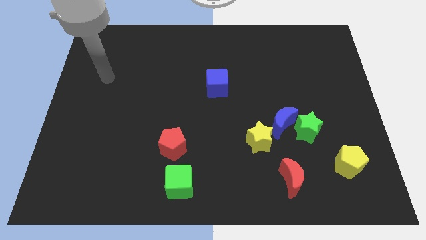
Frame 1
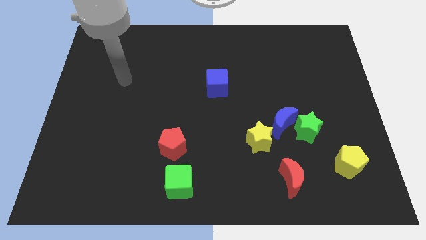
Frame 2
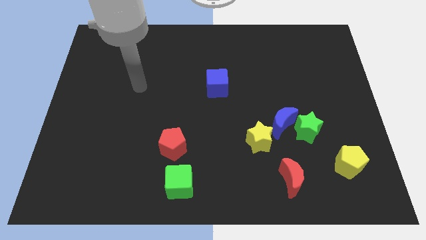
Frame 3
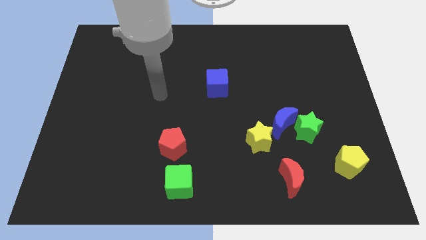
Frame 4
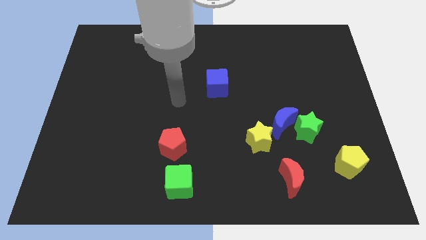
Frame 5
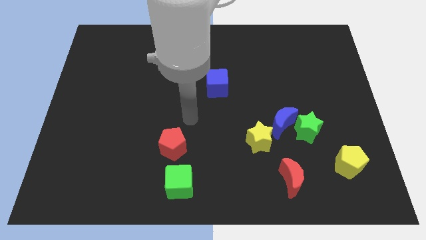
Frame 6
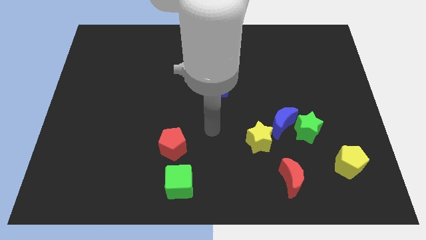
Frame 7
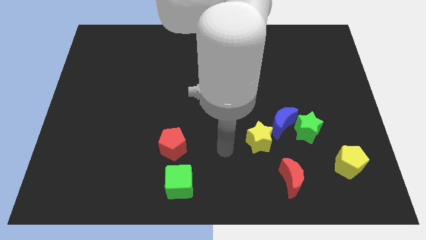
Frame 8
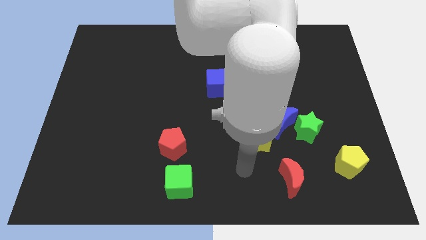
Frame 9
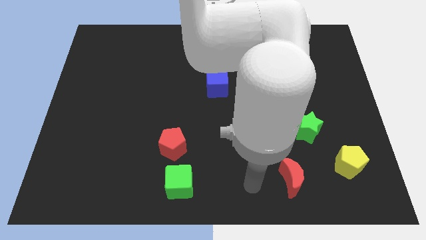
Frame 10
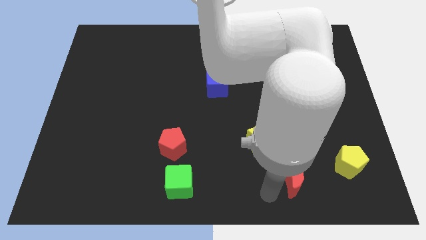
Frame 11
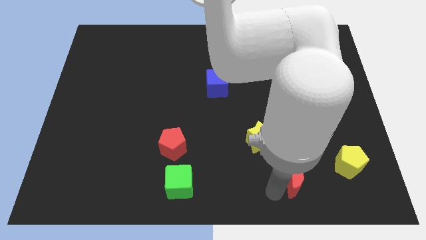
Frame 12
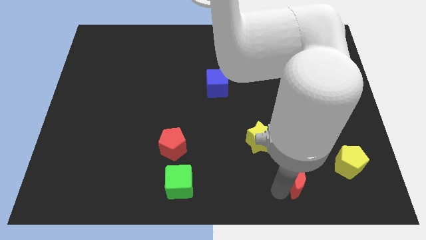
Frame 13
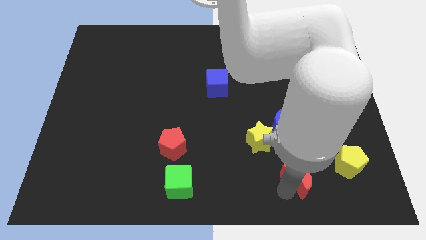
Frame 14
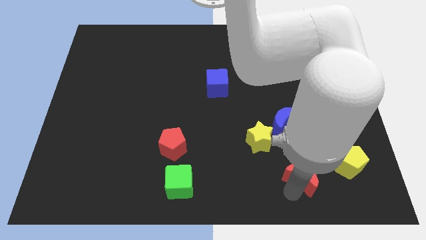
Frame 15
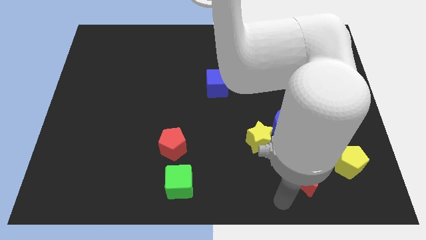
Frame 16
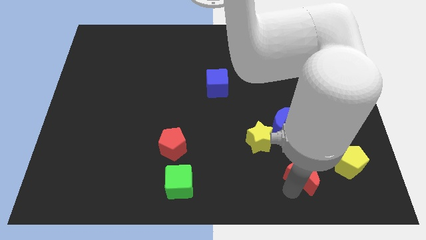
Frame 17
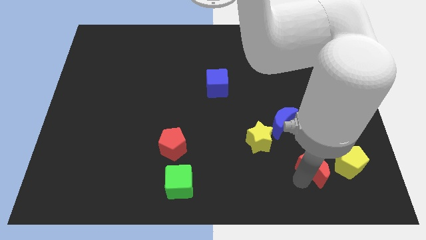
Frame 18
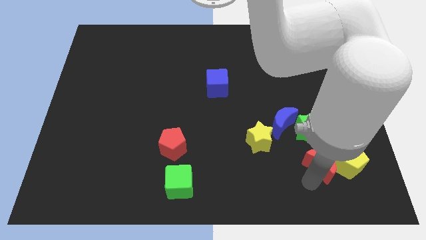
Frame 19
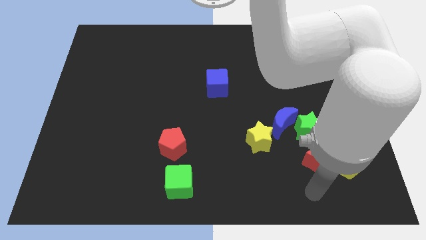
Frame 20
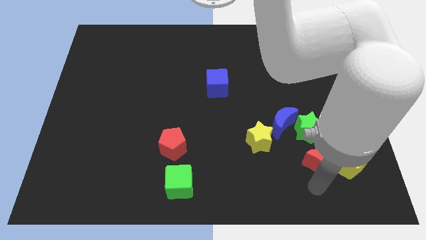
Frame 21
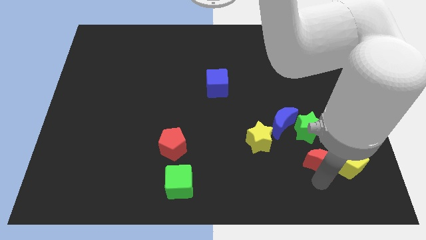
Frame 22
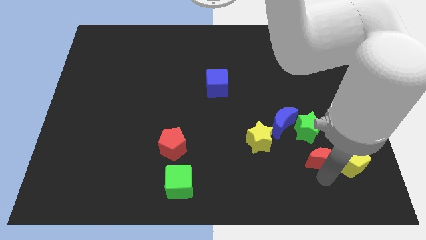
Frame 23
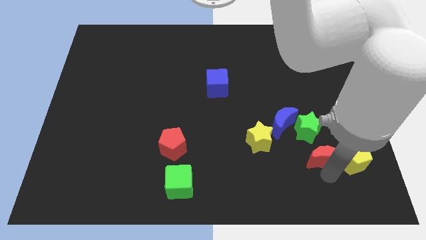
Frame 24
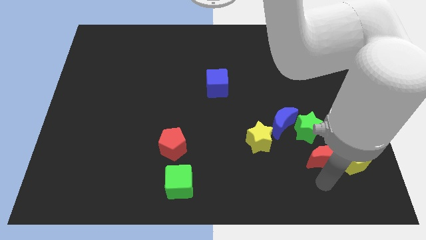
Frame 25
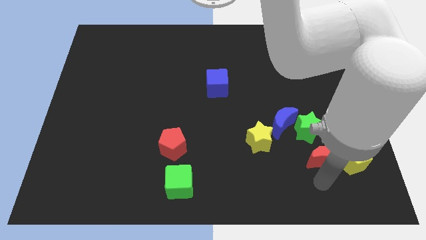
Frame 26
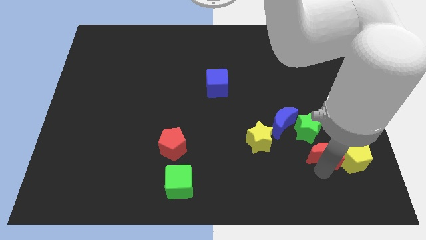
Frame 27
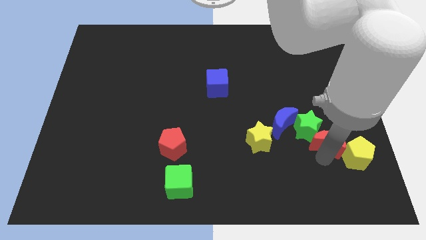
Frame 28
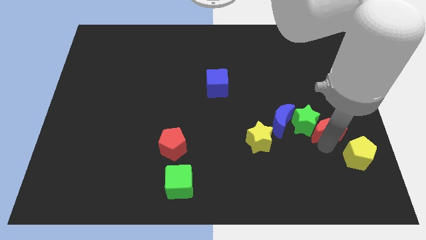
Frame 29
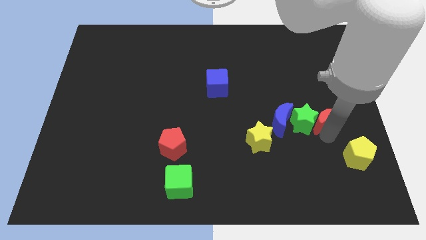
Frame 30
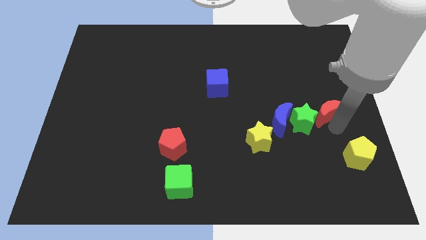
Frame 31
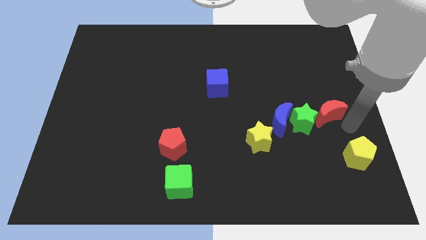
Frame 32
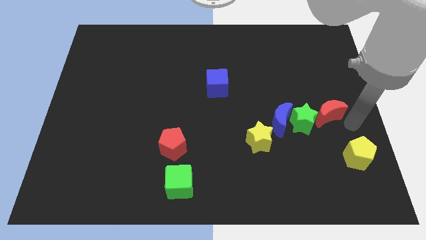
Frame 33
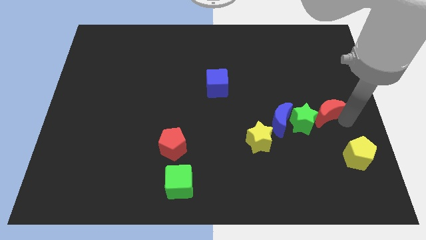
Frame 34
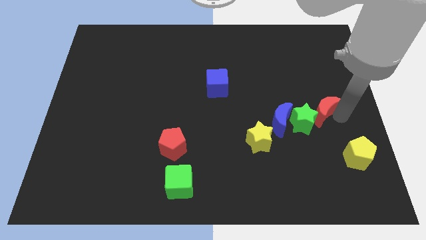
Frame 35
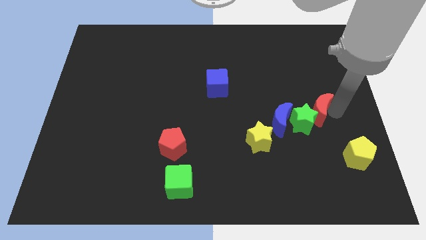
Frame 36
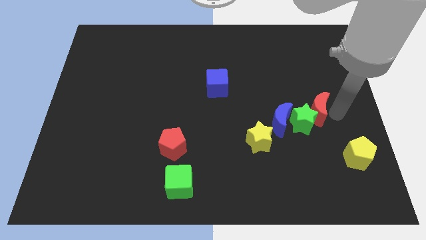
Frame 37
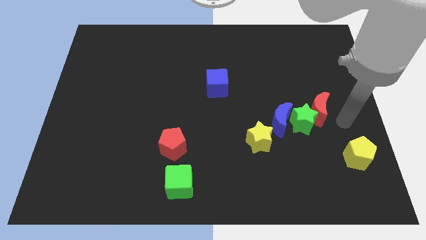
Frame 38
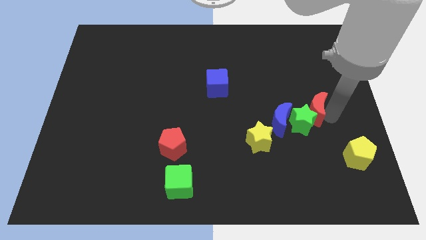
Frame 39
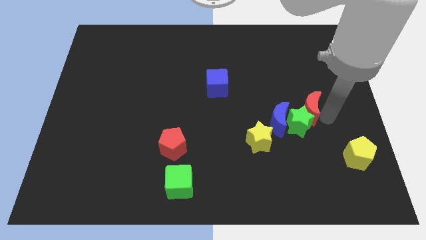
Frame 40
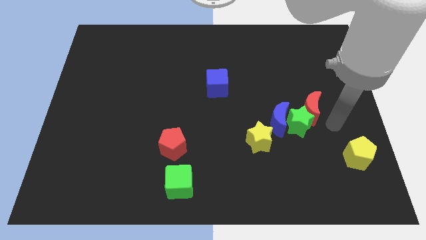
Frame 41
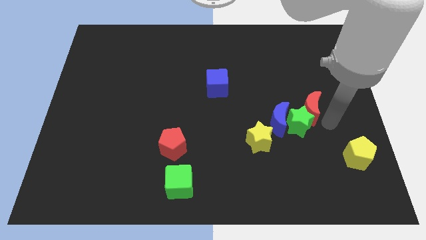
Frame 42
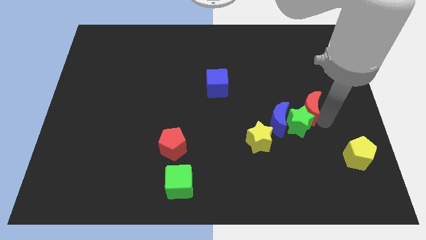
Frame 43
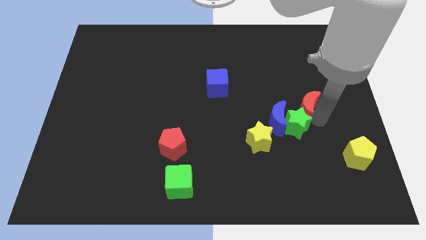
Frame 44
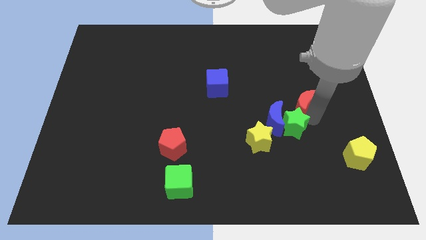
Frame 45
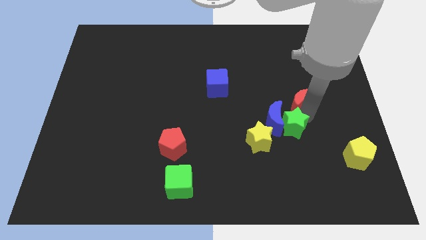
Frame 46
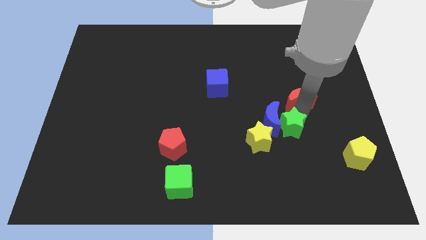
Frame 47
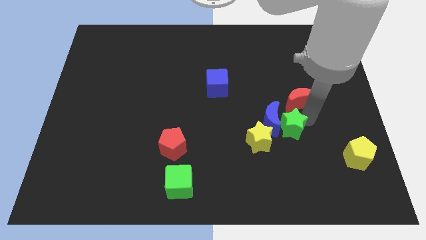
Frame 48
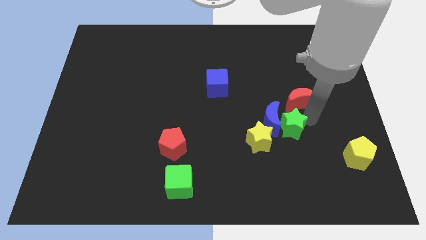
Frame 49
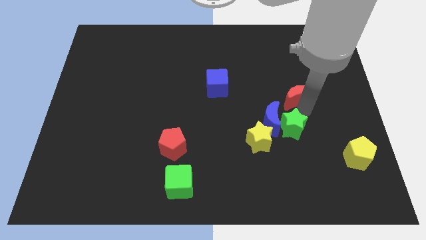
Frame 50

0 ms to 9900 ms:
slide the red moon up

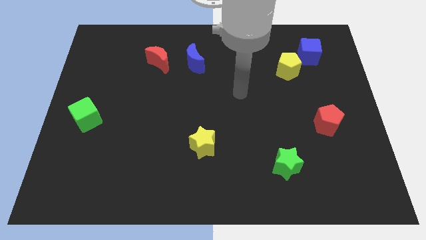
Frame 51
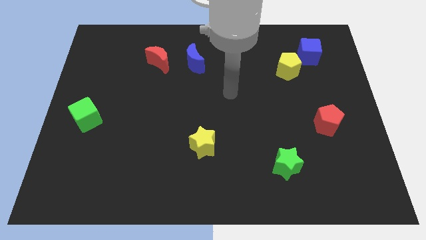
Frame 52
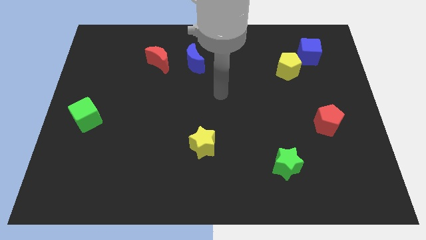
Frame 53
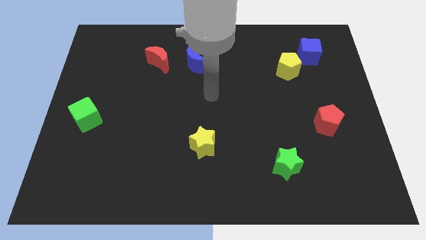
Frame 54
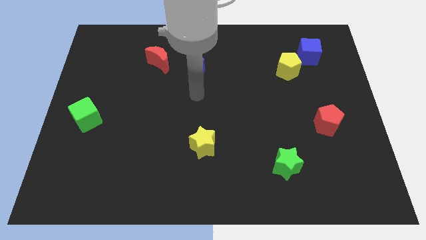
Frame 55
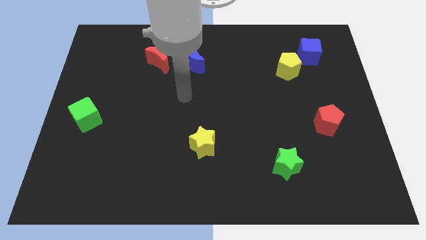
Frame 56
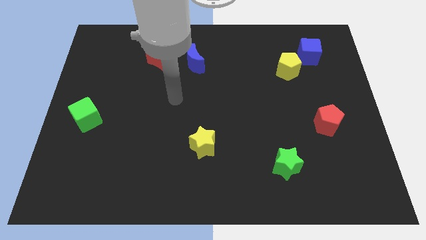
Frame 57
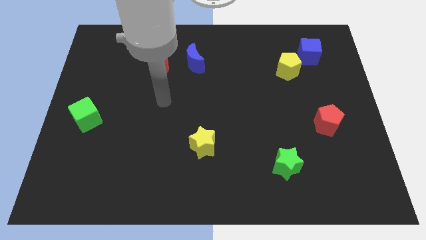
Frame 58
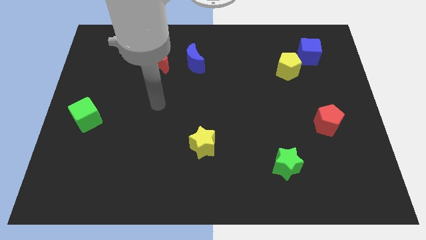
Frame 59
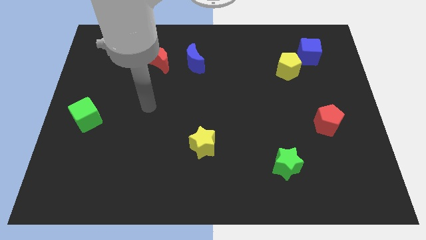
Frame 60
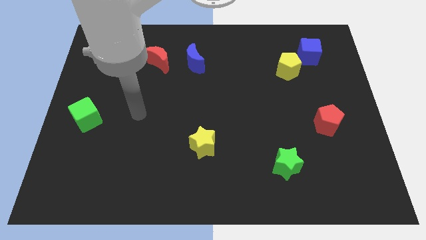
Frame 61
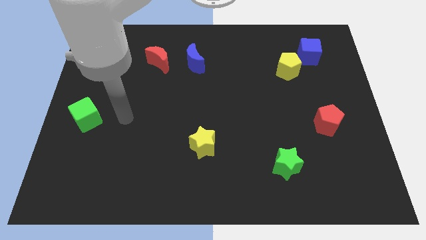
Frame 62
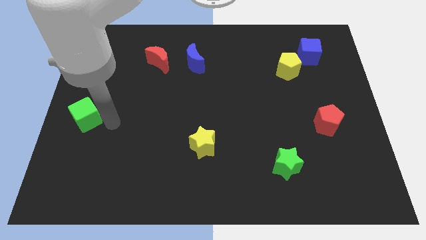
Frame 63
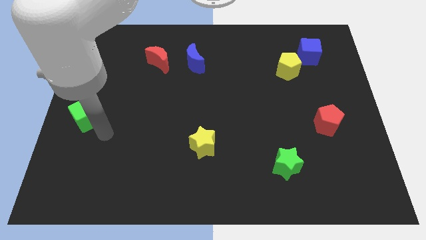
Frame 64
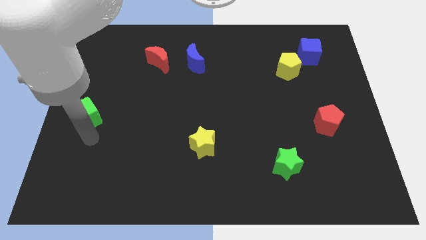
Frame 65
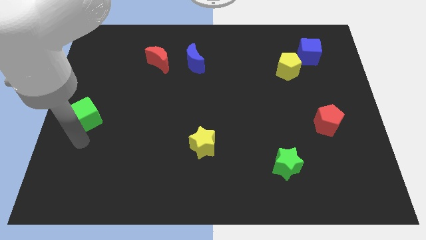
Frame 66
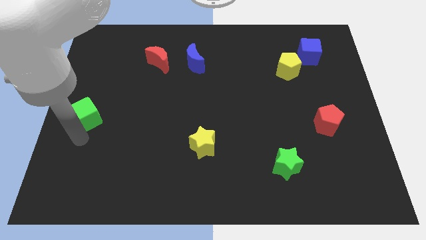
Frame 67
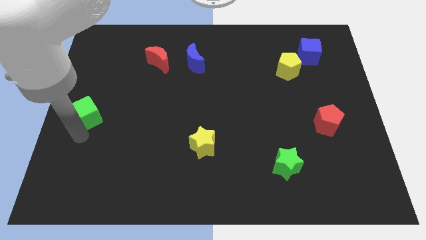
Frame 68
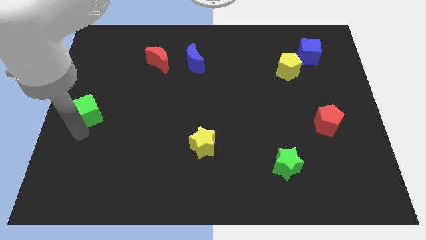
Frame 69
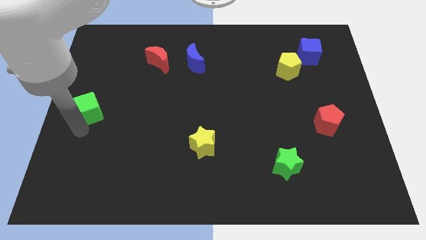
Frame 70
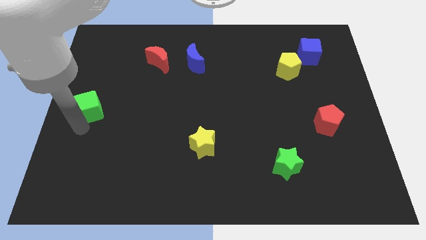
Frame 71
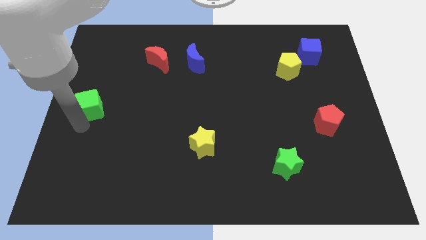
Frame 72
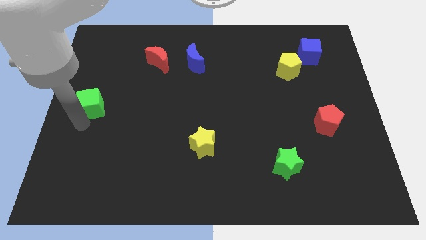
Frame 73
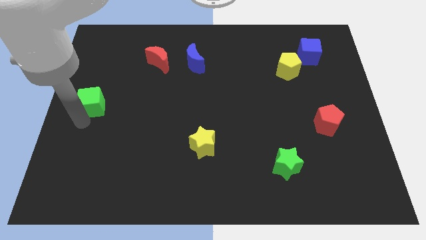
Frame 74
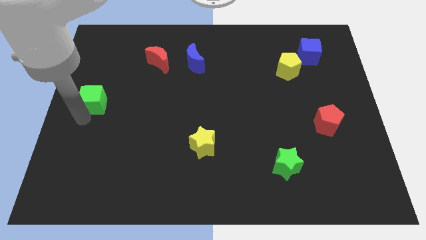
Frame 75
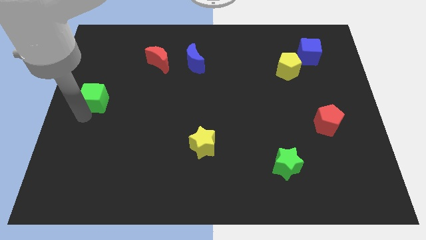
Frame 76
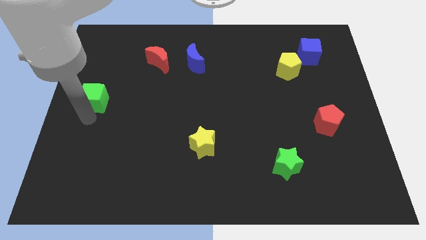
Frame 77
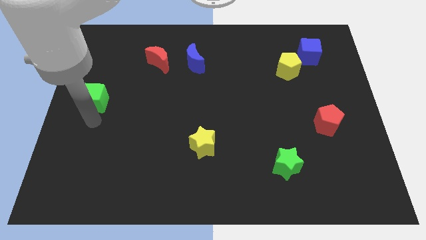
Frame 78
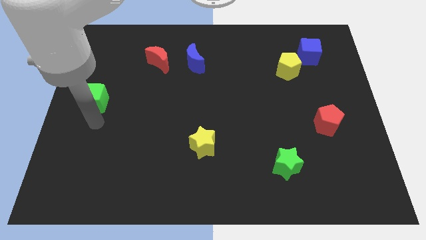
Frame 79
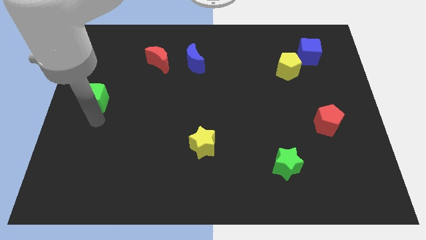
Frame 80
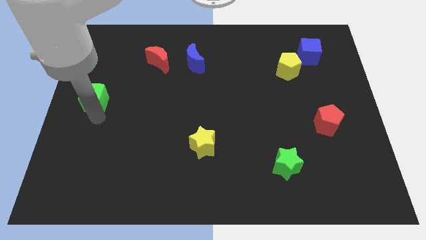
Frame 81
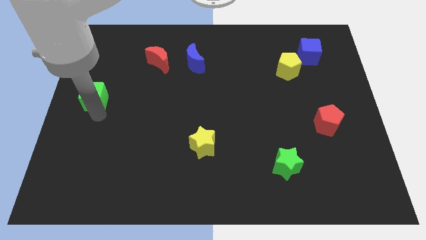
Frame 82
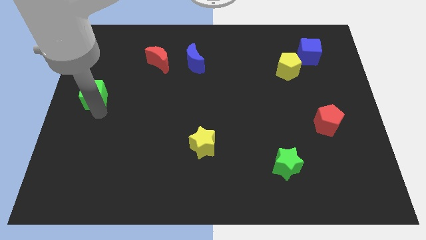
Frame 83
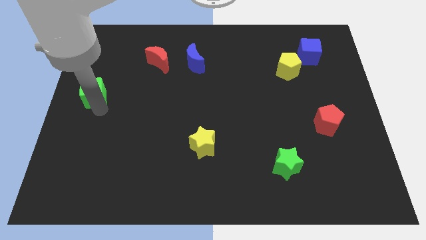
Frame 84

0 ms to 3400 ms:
slightly move the green cube up

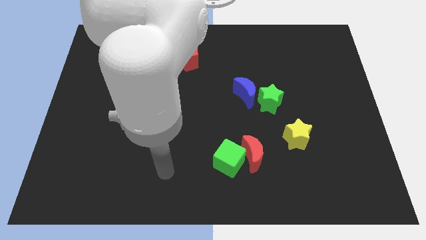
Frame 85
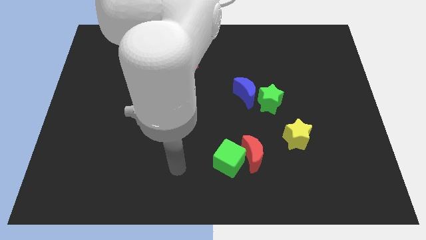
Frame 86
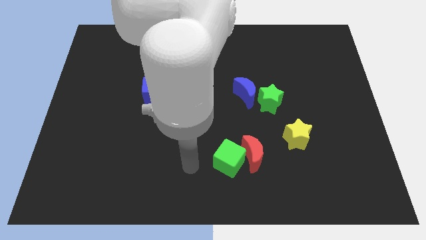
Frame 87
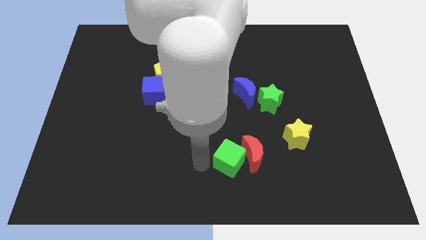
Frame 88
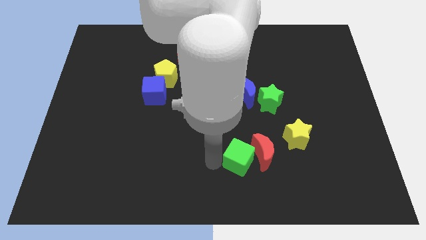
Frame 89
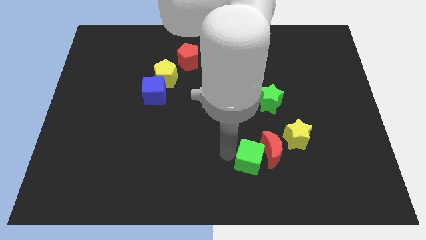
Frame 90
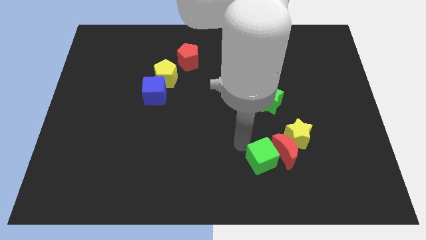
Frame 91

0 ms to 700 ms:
slightly push the red moon to the right
